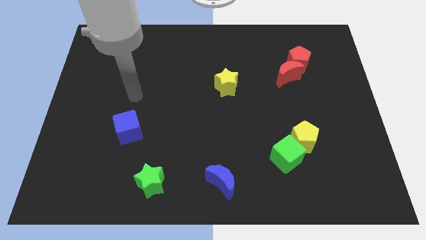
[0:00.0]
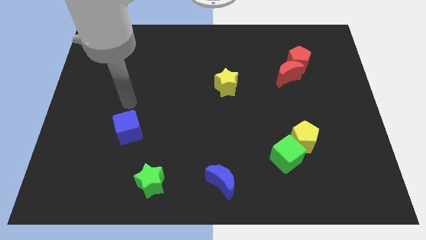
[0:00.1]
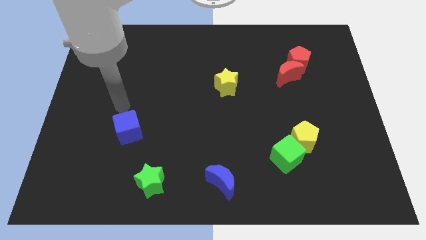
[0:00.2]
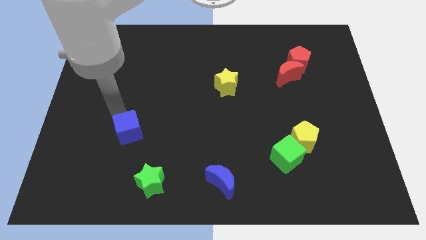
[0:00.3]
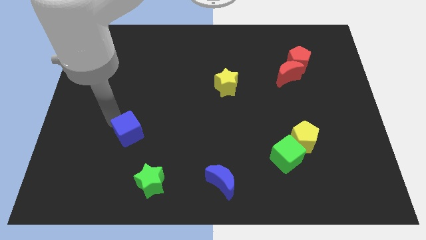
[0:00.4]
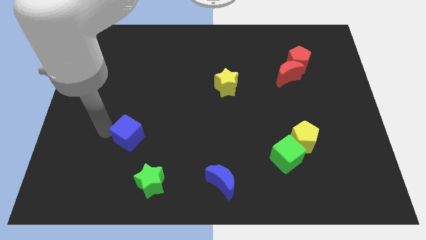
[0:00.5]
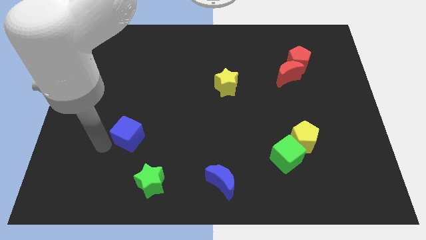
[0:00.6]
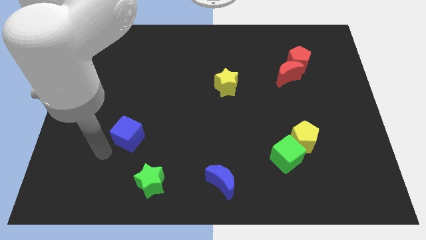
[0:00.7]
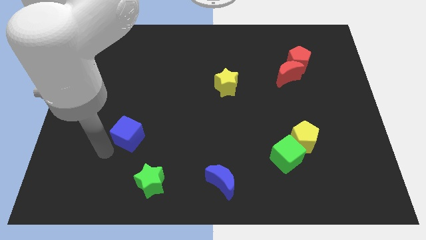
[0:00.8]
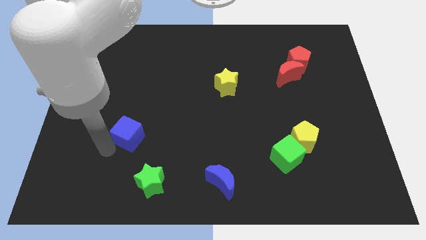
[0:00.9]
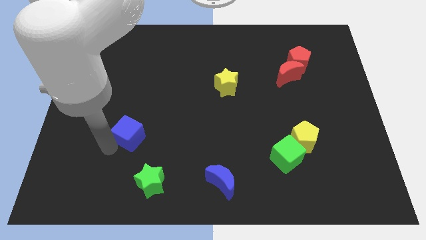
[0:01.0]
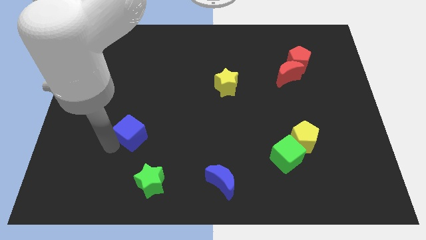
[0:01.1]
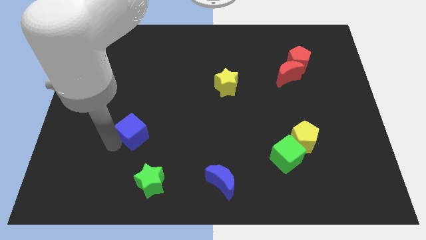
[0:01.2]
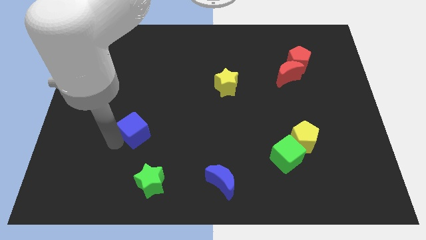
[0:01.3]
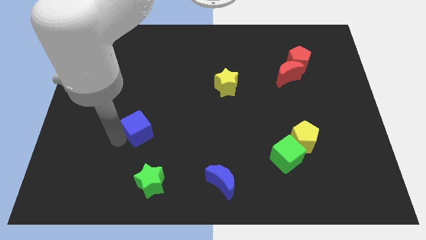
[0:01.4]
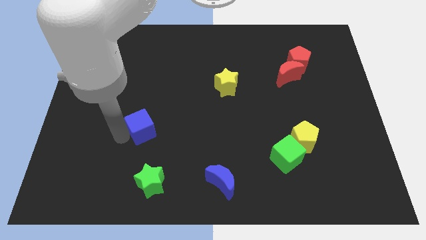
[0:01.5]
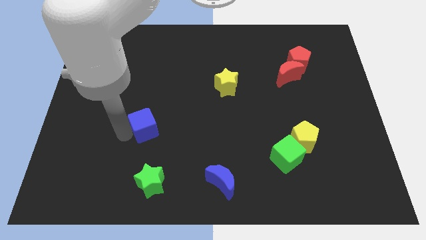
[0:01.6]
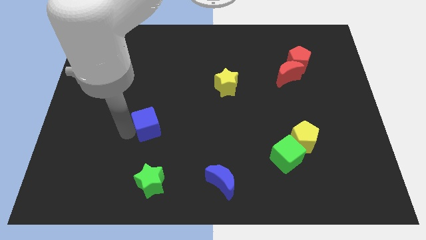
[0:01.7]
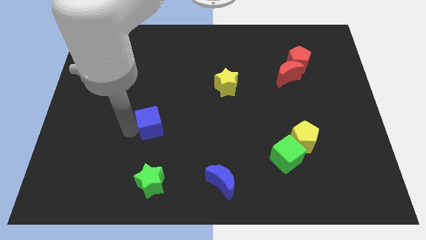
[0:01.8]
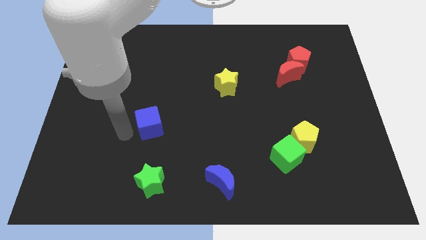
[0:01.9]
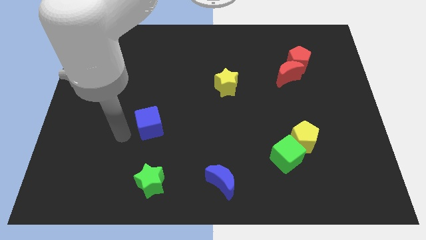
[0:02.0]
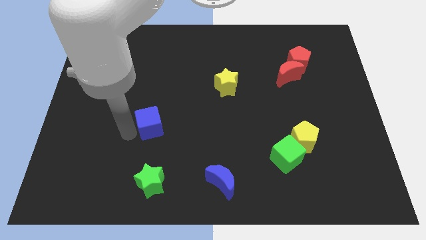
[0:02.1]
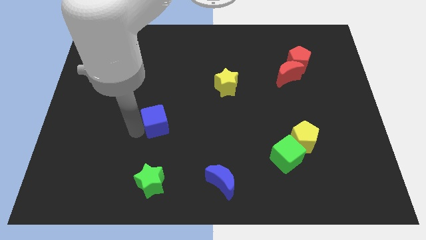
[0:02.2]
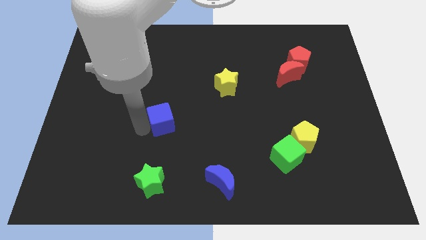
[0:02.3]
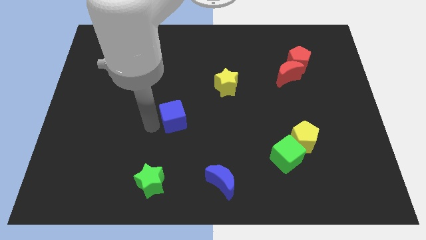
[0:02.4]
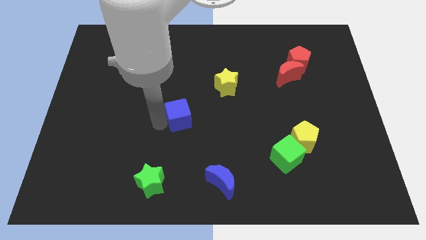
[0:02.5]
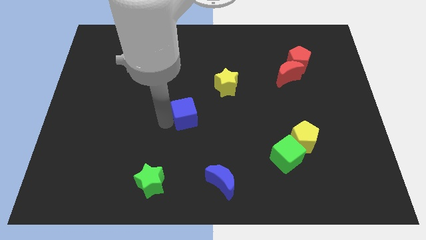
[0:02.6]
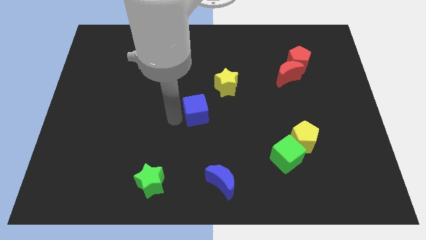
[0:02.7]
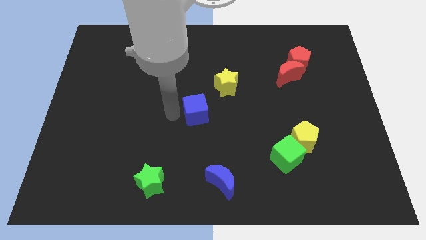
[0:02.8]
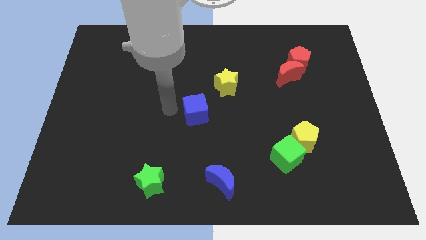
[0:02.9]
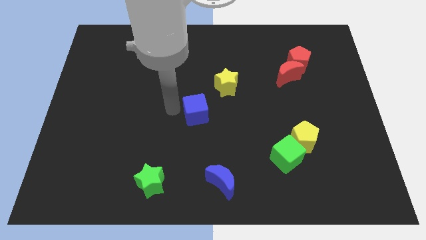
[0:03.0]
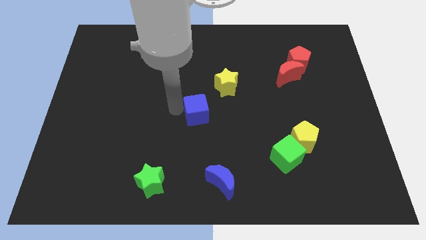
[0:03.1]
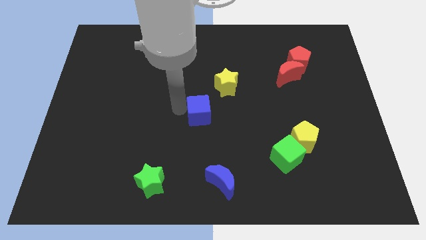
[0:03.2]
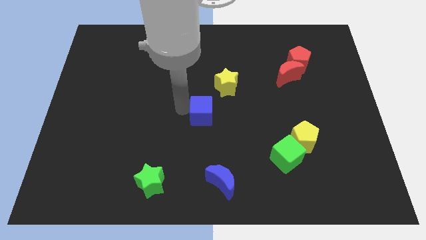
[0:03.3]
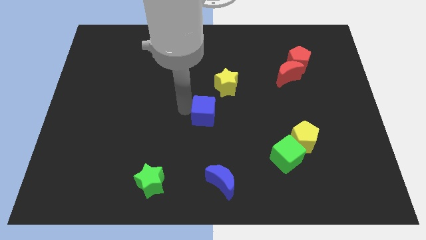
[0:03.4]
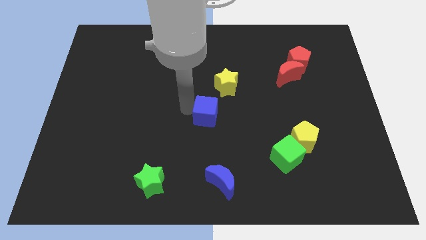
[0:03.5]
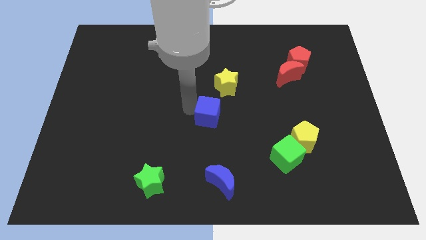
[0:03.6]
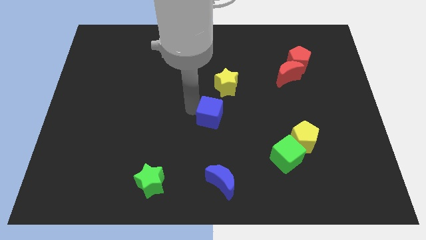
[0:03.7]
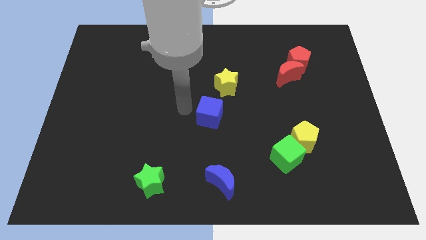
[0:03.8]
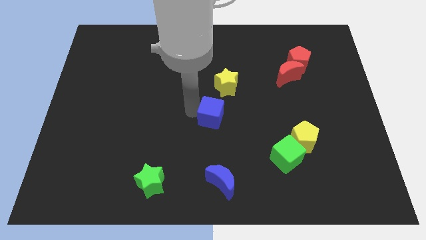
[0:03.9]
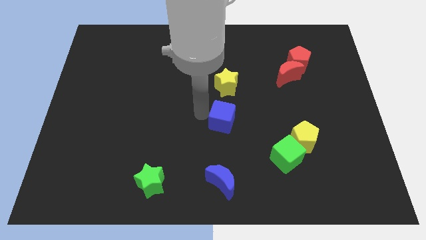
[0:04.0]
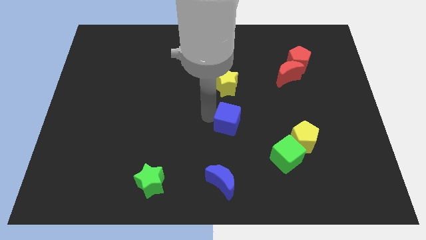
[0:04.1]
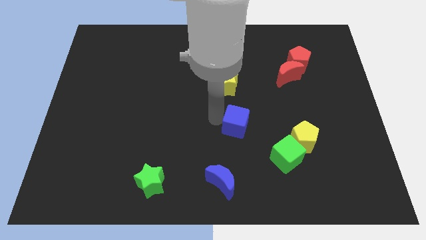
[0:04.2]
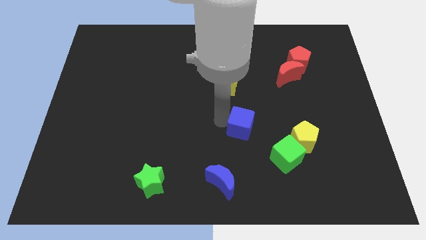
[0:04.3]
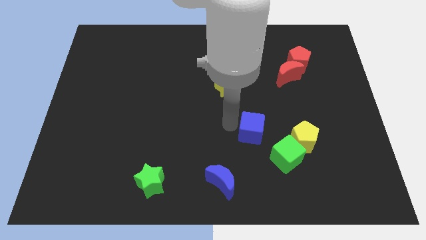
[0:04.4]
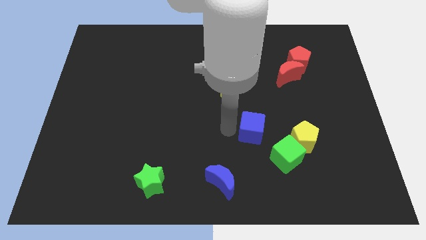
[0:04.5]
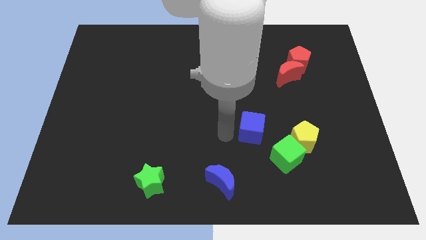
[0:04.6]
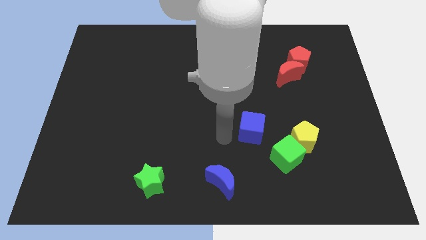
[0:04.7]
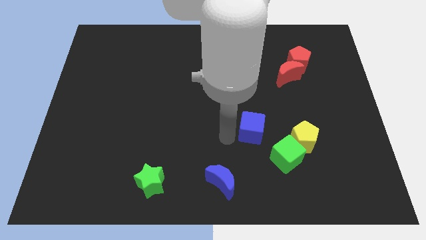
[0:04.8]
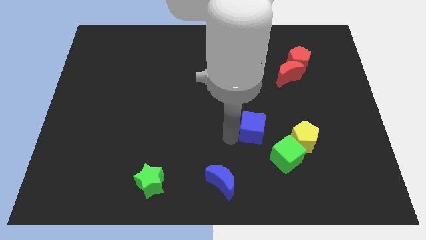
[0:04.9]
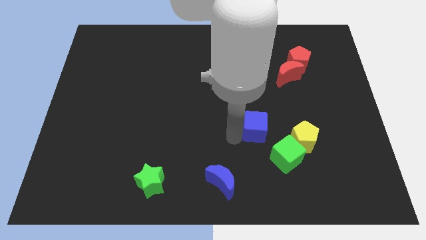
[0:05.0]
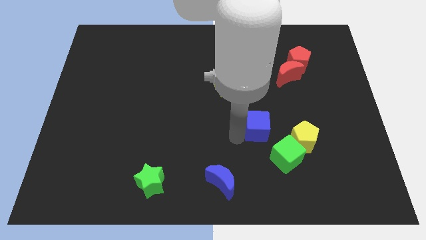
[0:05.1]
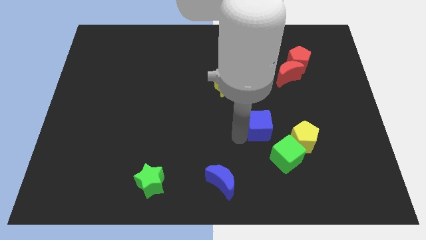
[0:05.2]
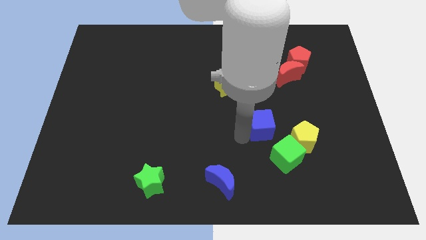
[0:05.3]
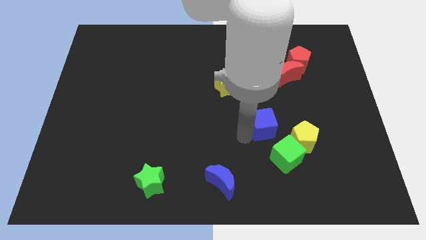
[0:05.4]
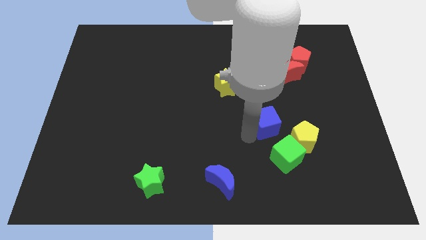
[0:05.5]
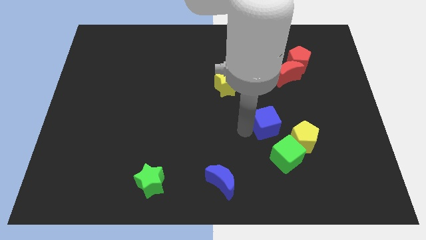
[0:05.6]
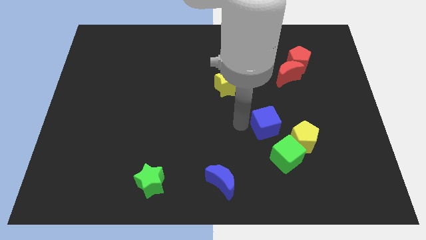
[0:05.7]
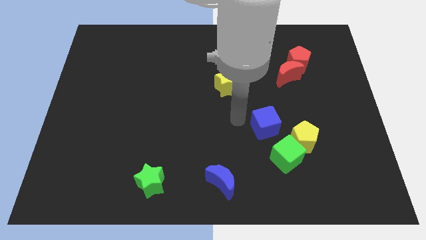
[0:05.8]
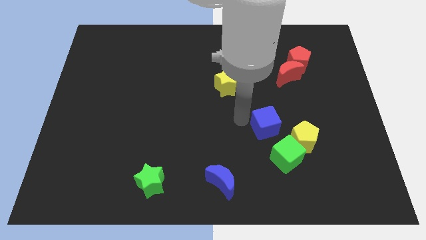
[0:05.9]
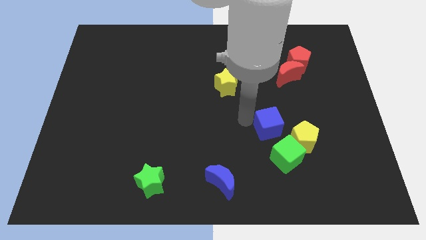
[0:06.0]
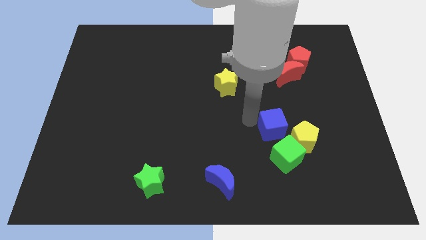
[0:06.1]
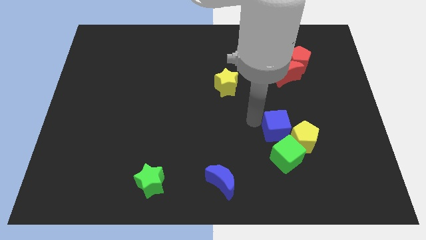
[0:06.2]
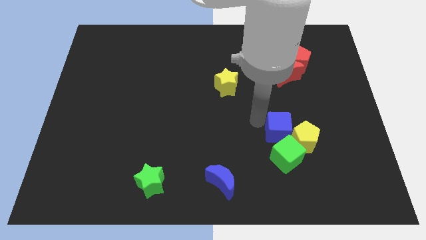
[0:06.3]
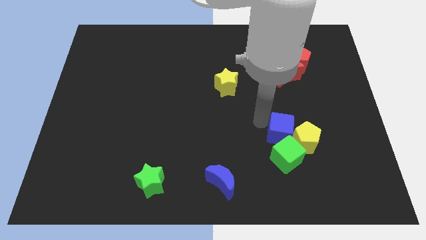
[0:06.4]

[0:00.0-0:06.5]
push the blue cube to the top right of the green cube

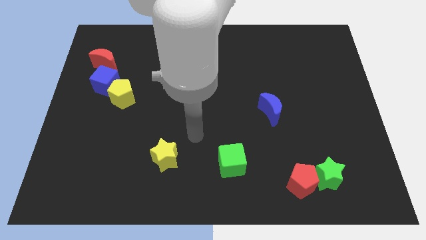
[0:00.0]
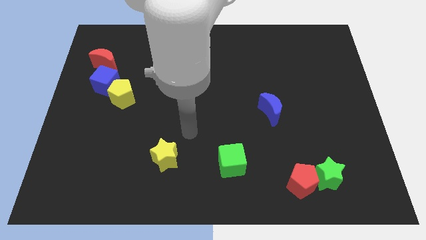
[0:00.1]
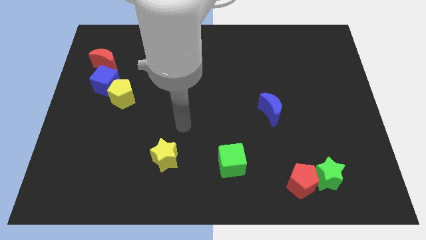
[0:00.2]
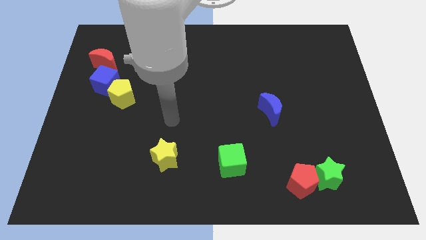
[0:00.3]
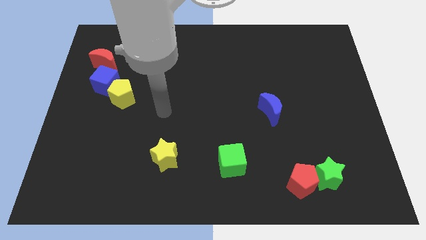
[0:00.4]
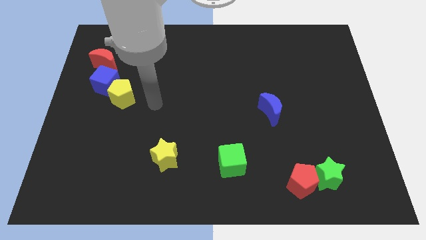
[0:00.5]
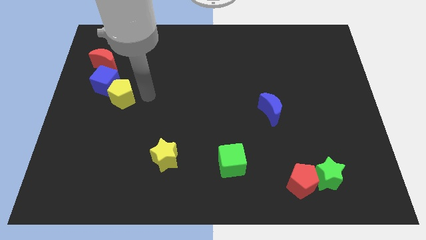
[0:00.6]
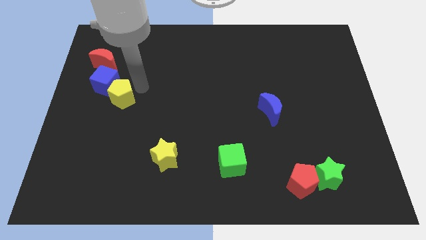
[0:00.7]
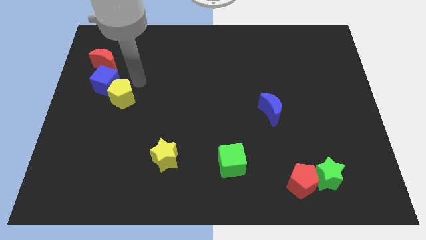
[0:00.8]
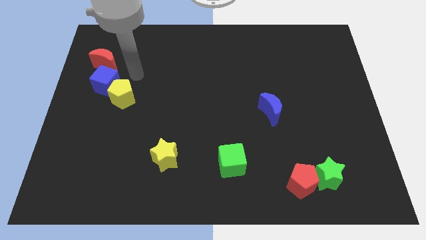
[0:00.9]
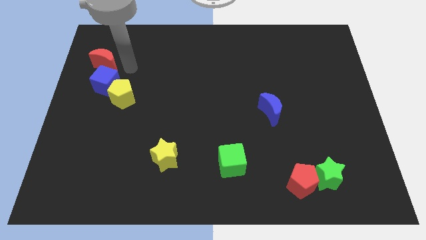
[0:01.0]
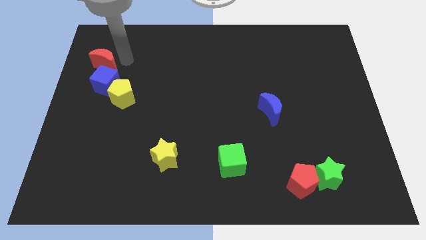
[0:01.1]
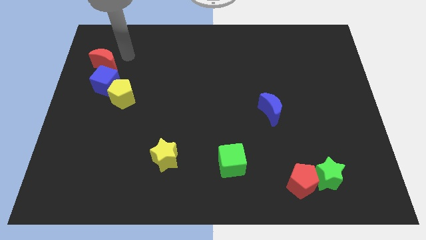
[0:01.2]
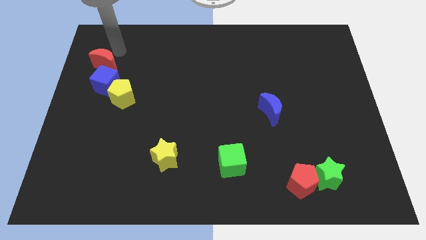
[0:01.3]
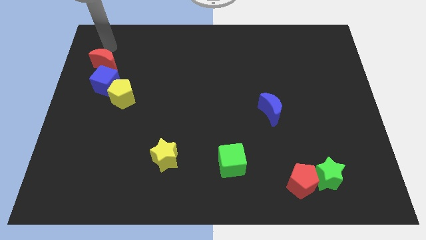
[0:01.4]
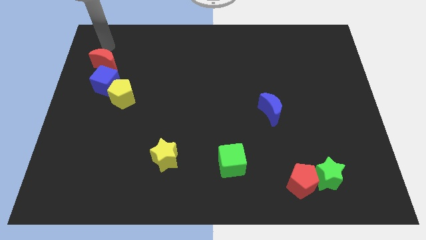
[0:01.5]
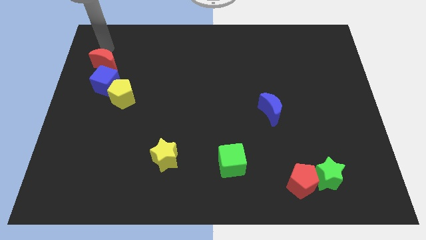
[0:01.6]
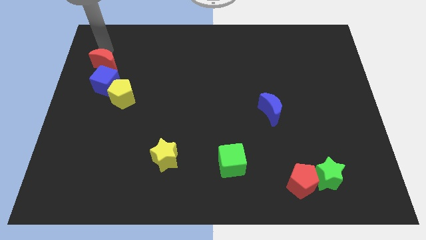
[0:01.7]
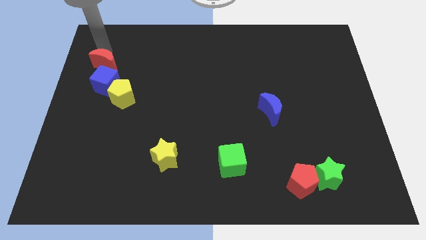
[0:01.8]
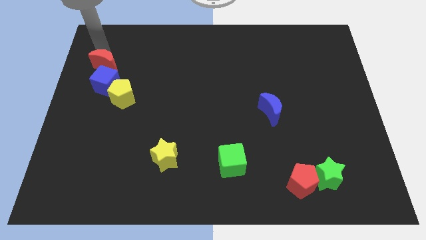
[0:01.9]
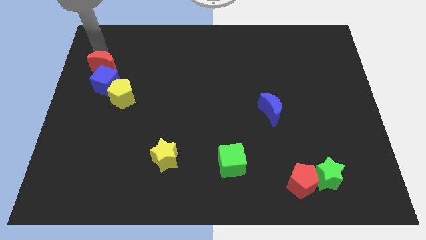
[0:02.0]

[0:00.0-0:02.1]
put the red moon to the top left of the yellow pentagon
